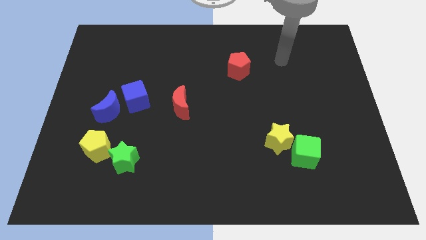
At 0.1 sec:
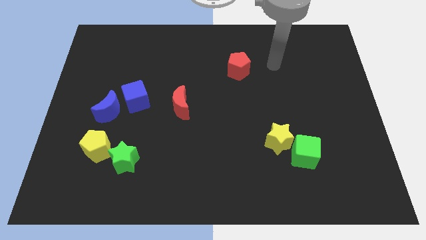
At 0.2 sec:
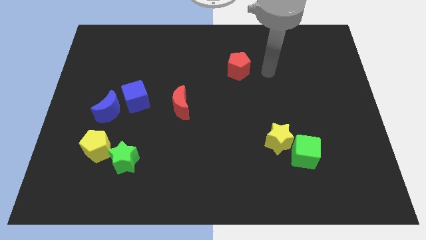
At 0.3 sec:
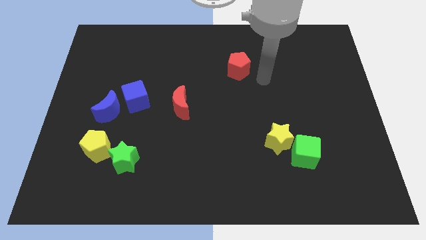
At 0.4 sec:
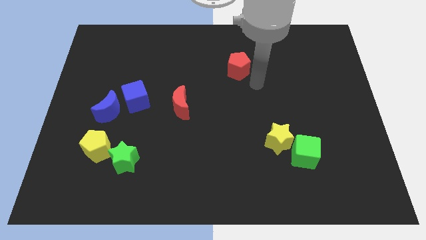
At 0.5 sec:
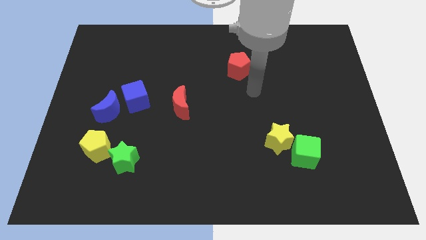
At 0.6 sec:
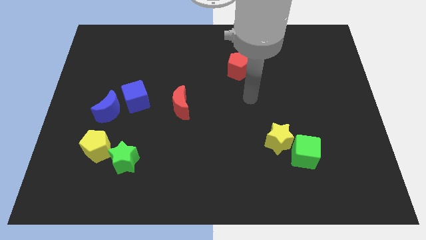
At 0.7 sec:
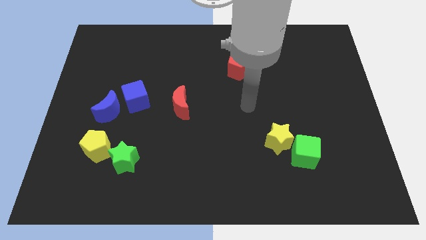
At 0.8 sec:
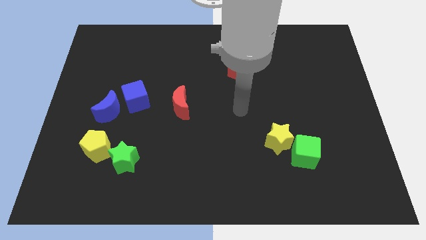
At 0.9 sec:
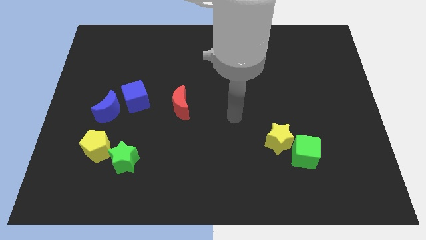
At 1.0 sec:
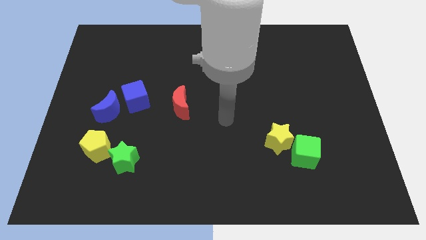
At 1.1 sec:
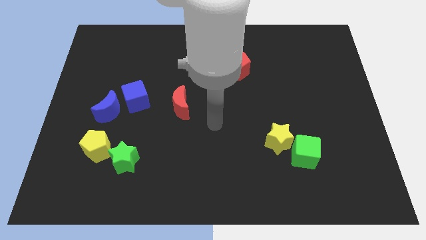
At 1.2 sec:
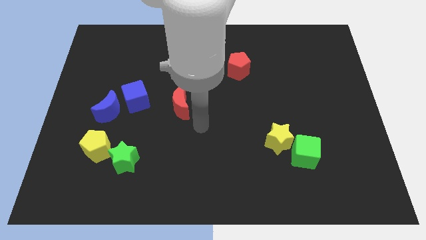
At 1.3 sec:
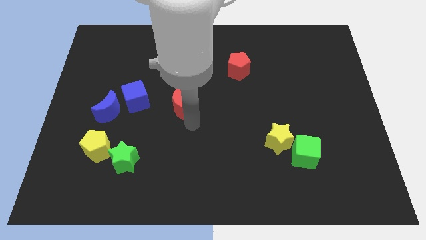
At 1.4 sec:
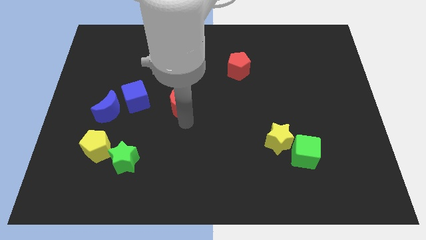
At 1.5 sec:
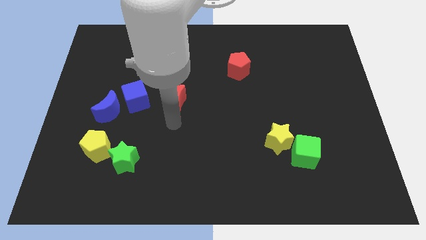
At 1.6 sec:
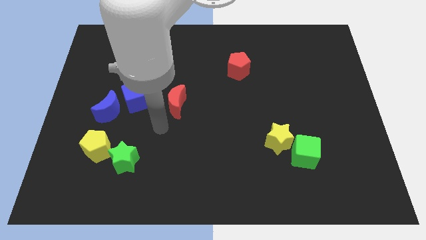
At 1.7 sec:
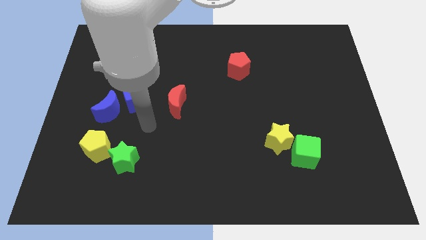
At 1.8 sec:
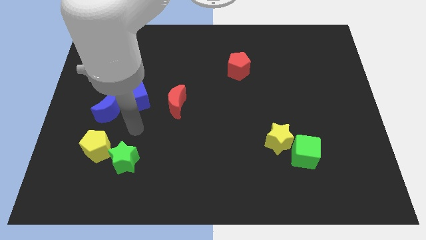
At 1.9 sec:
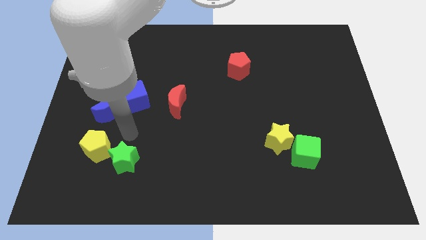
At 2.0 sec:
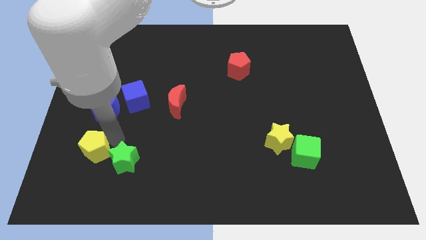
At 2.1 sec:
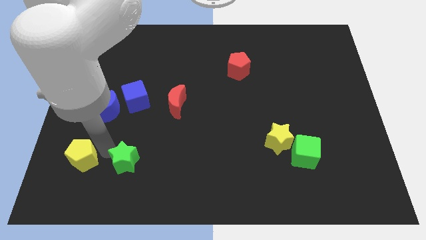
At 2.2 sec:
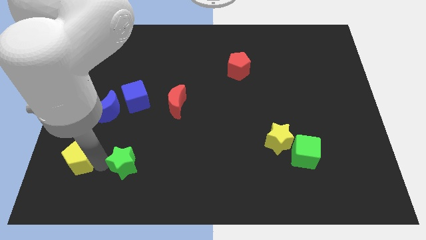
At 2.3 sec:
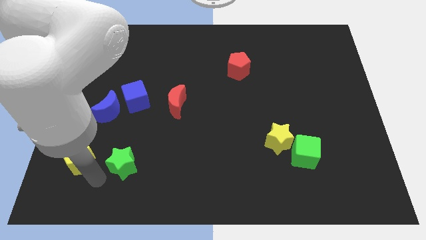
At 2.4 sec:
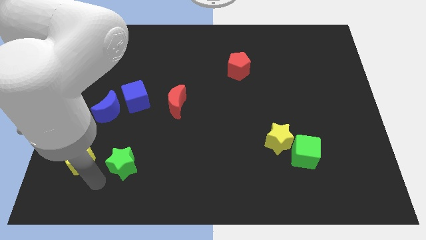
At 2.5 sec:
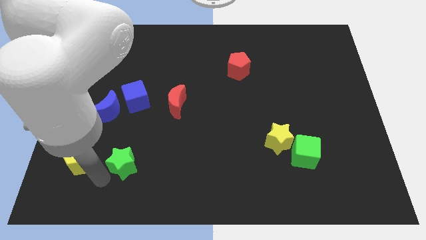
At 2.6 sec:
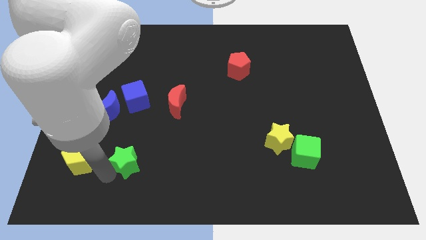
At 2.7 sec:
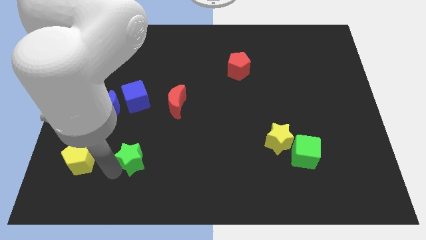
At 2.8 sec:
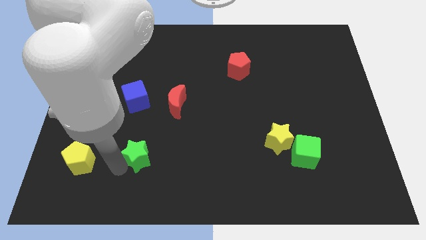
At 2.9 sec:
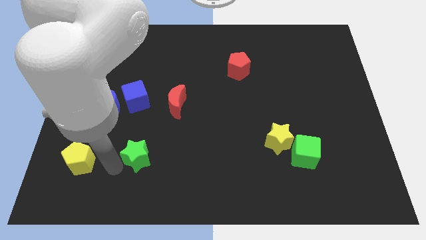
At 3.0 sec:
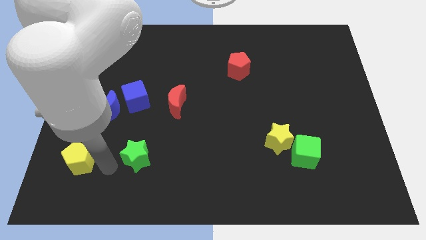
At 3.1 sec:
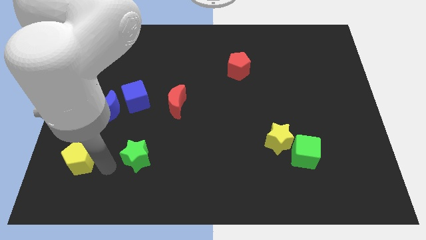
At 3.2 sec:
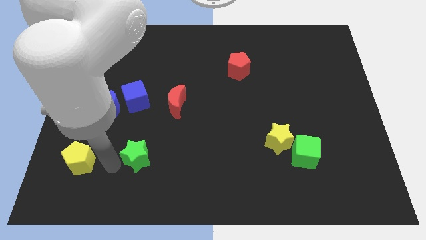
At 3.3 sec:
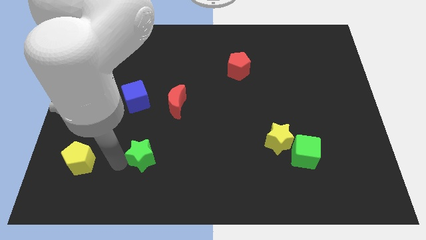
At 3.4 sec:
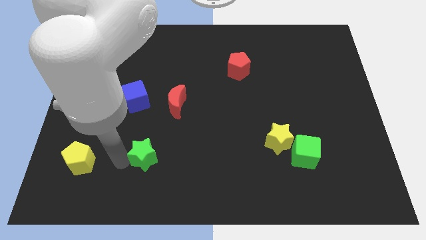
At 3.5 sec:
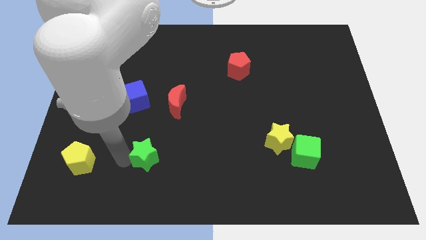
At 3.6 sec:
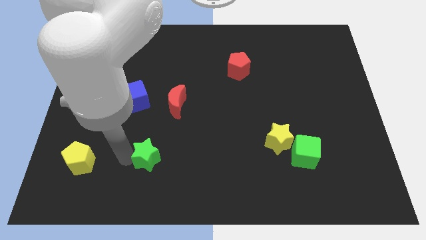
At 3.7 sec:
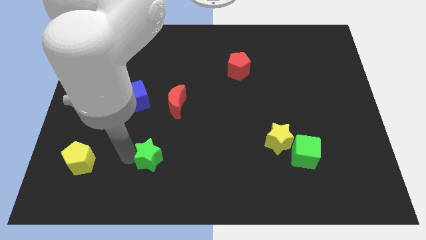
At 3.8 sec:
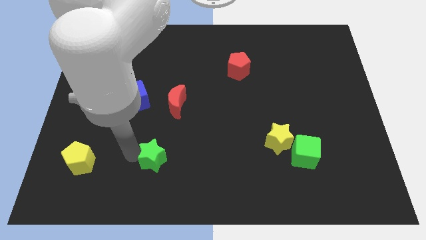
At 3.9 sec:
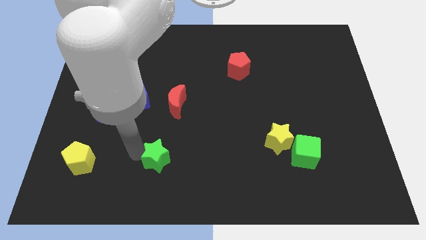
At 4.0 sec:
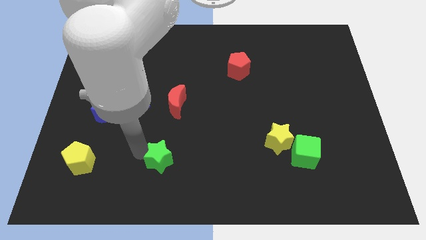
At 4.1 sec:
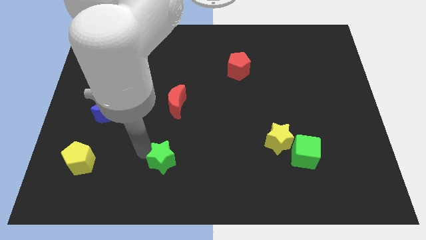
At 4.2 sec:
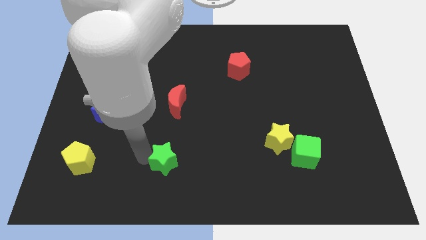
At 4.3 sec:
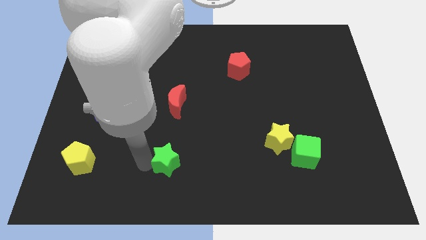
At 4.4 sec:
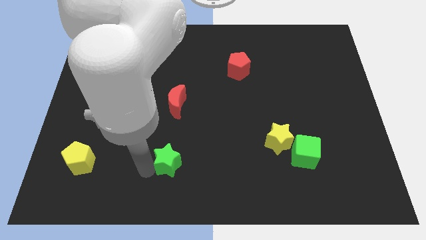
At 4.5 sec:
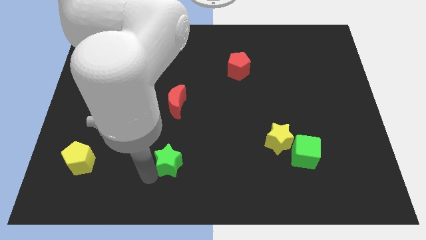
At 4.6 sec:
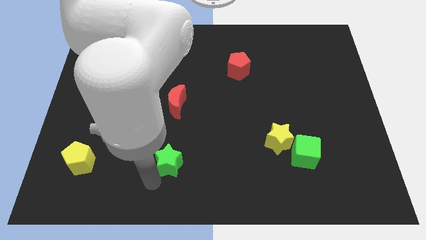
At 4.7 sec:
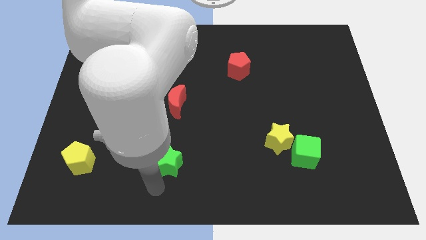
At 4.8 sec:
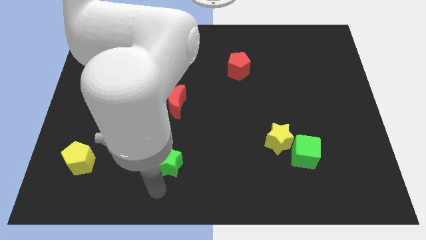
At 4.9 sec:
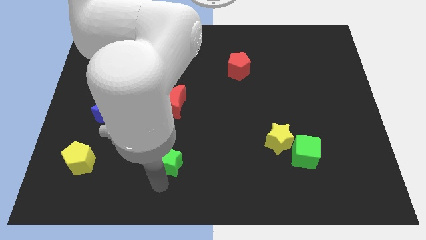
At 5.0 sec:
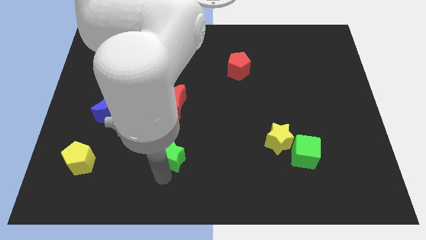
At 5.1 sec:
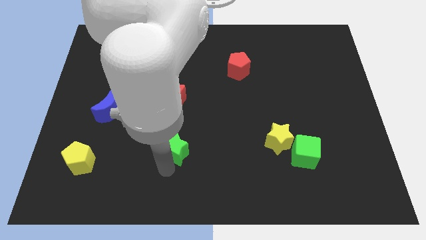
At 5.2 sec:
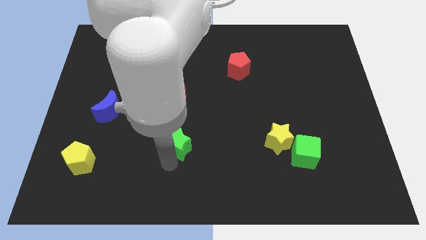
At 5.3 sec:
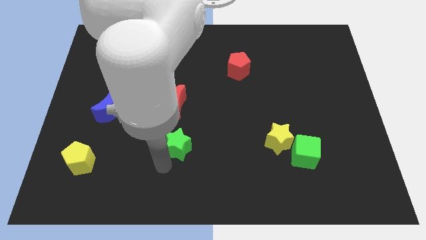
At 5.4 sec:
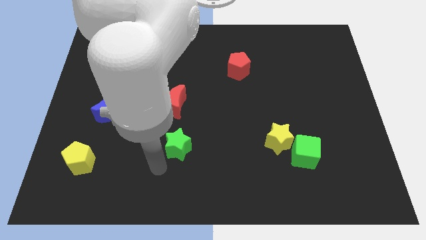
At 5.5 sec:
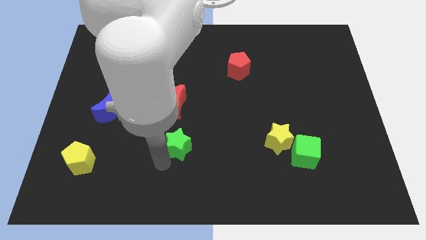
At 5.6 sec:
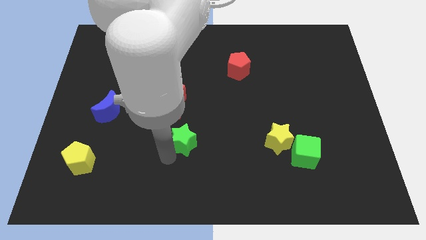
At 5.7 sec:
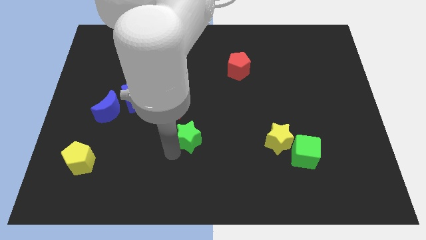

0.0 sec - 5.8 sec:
put the green star to the center of the board

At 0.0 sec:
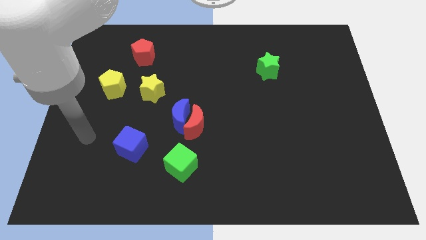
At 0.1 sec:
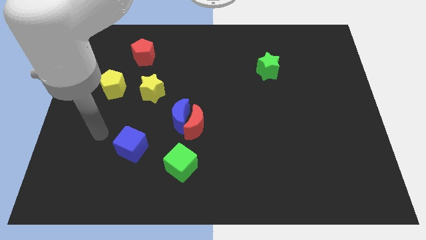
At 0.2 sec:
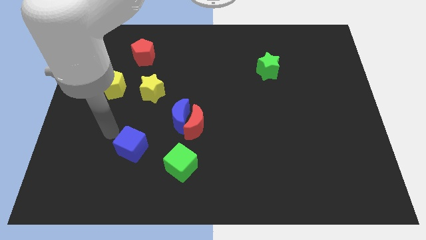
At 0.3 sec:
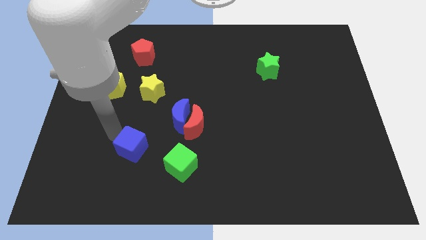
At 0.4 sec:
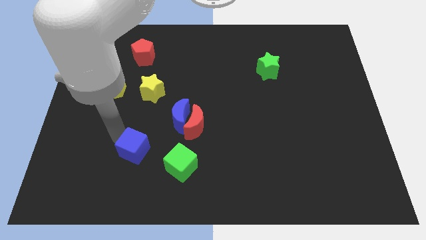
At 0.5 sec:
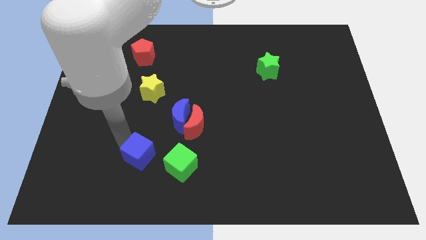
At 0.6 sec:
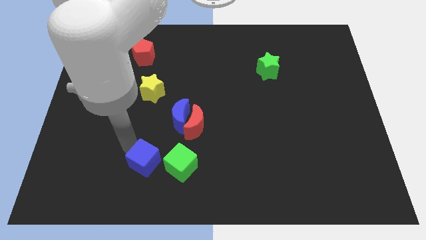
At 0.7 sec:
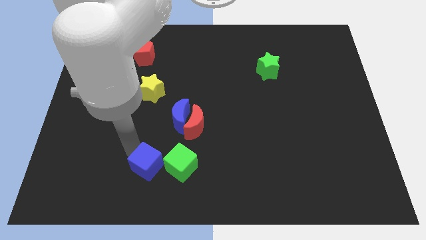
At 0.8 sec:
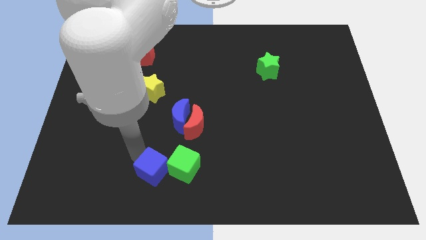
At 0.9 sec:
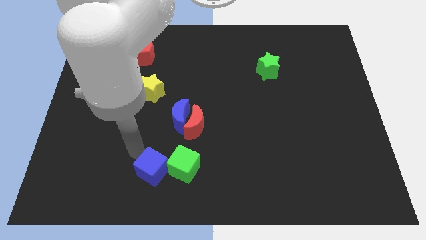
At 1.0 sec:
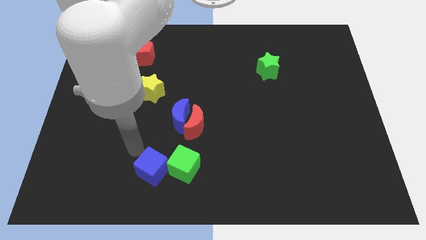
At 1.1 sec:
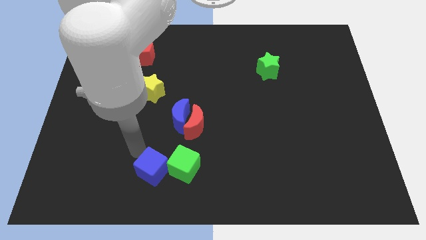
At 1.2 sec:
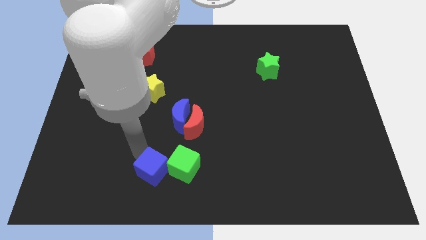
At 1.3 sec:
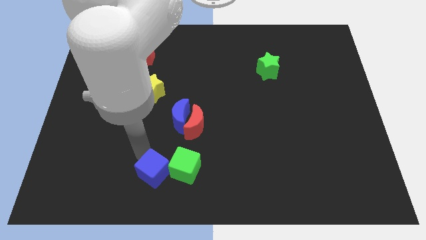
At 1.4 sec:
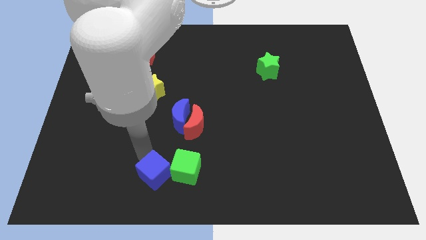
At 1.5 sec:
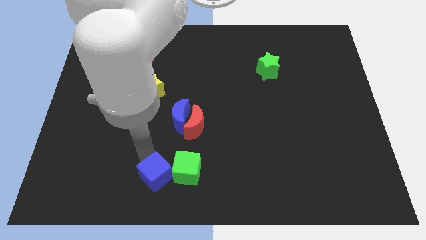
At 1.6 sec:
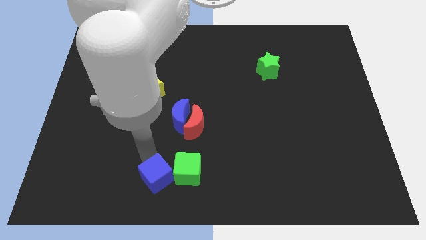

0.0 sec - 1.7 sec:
put the blue cube to the bottom
